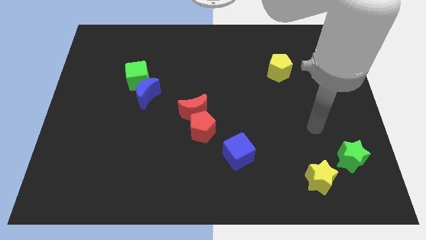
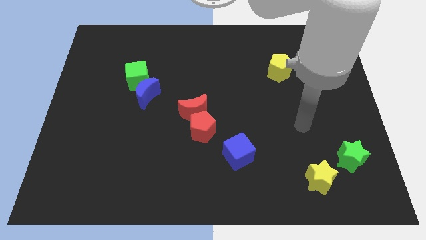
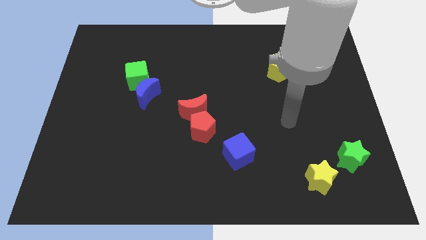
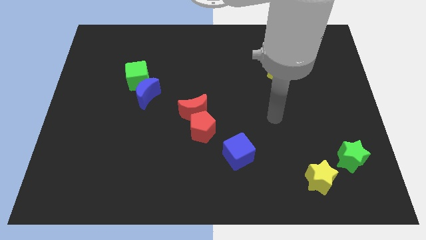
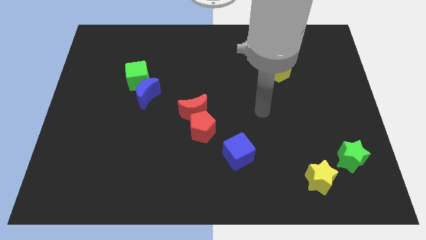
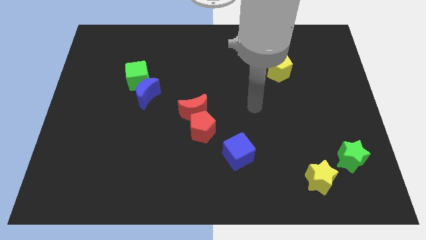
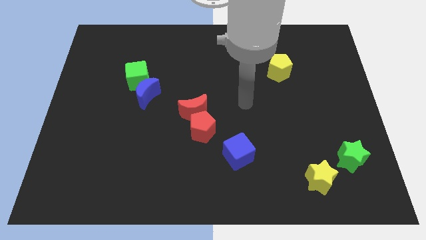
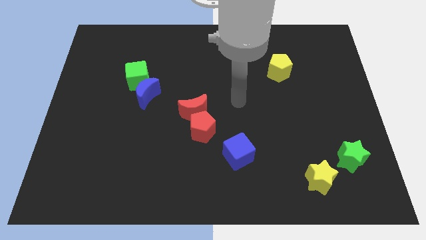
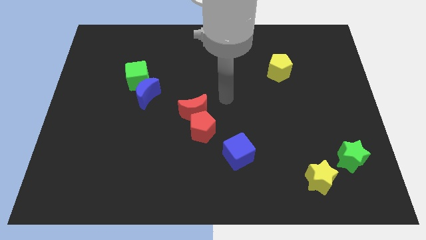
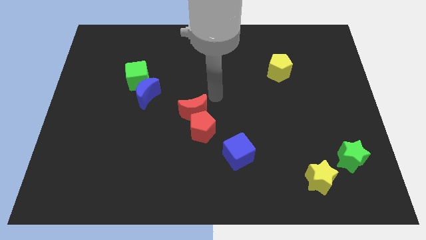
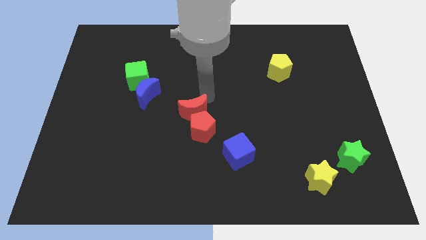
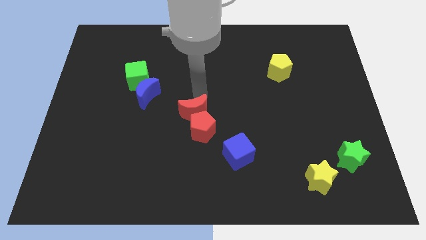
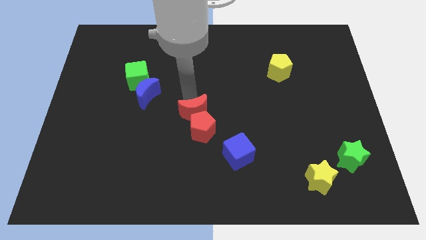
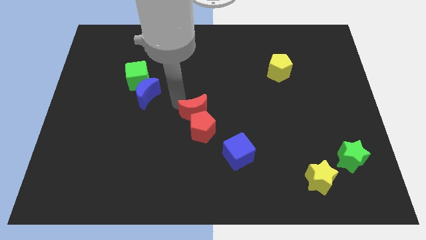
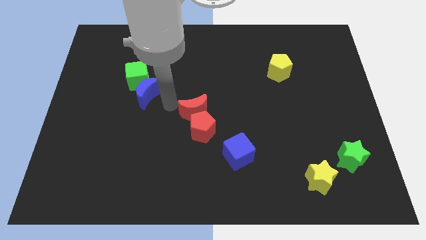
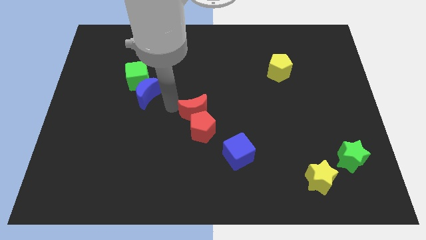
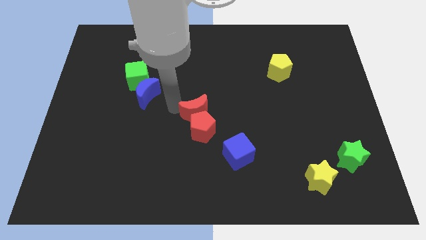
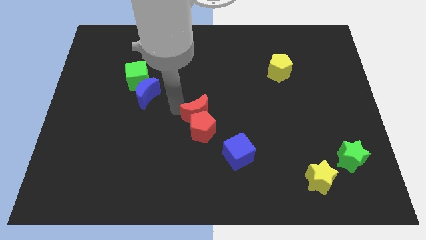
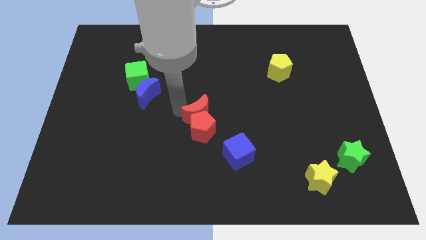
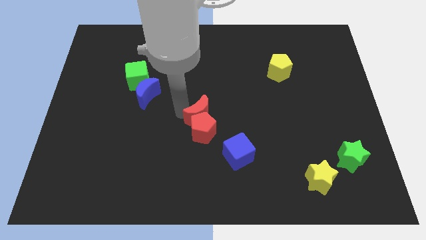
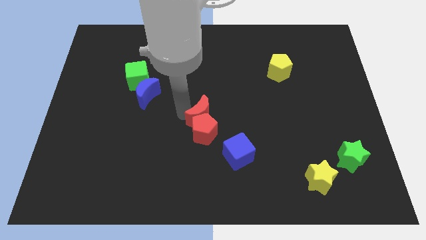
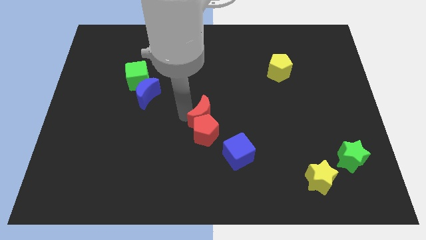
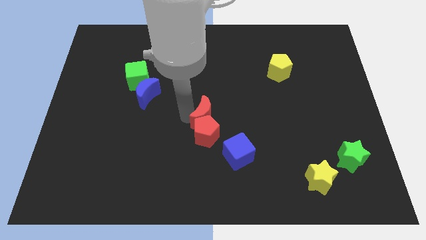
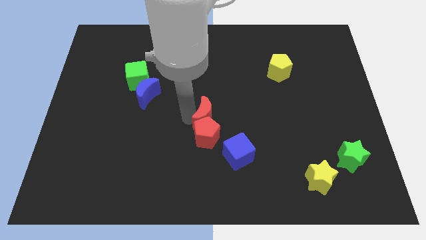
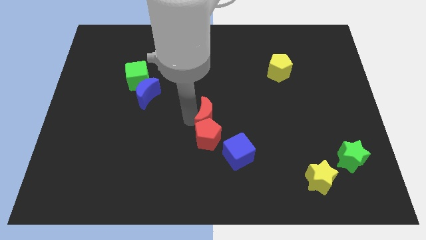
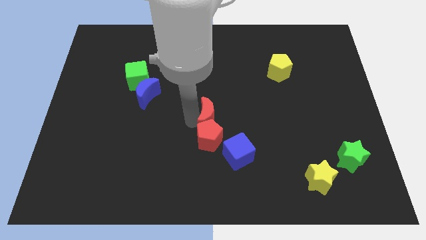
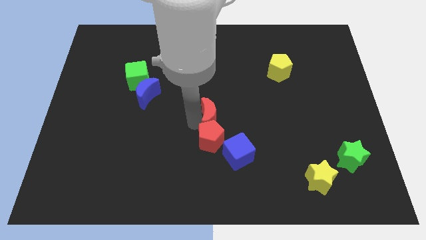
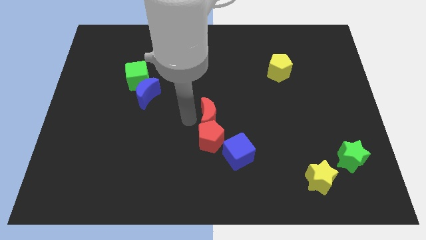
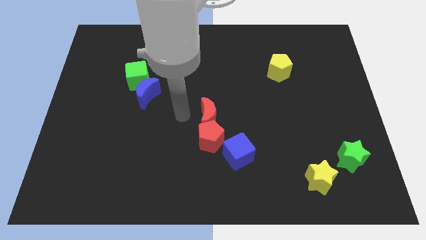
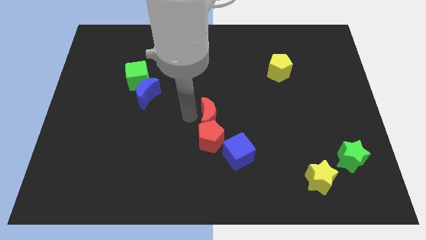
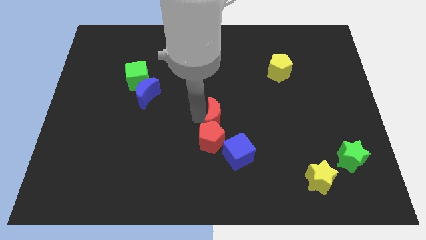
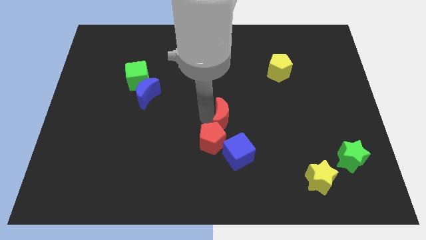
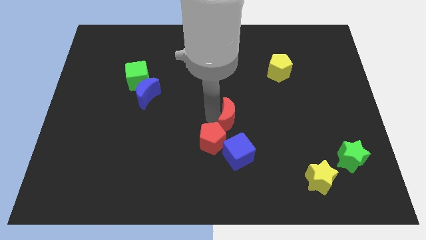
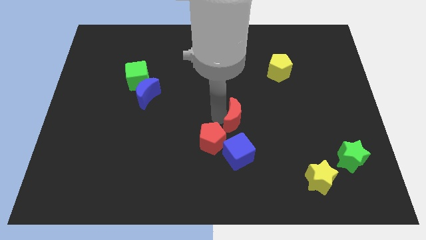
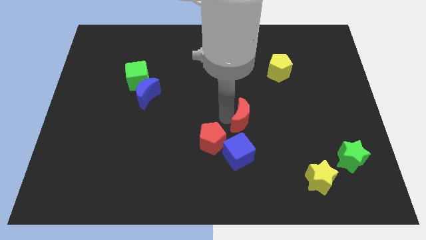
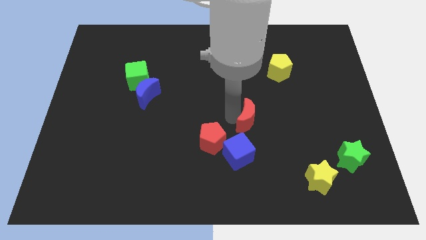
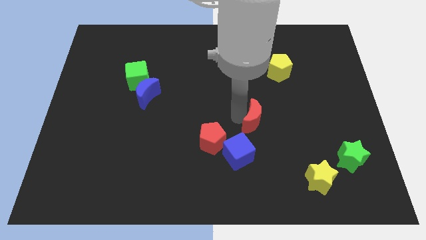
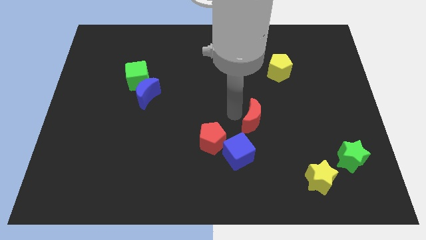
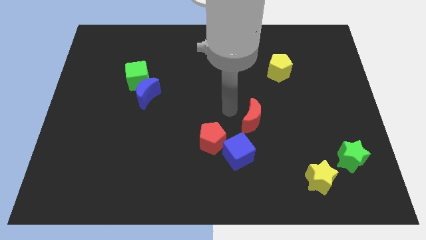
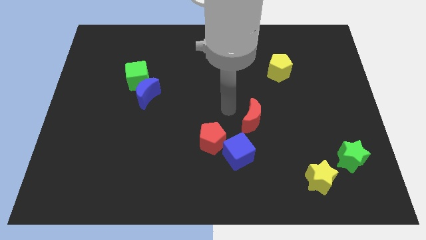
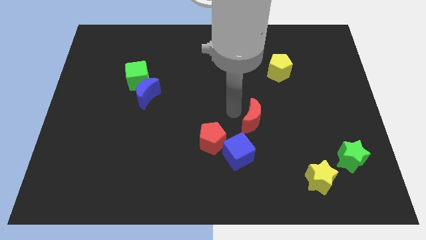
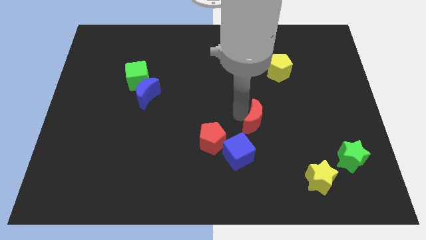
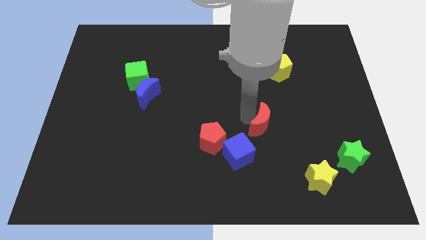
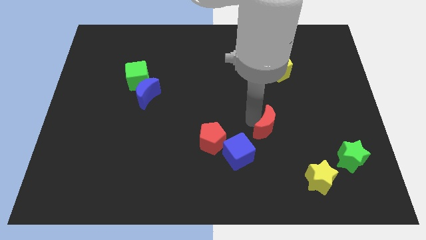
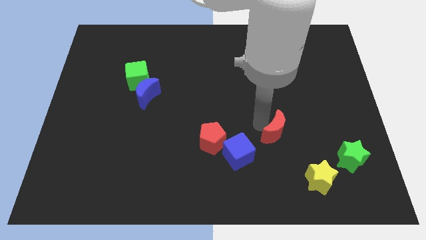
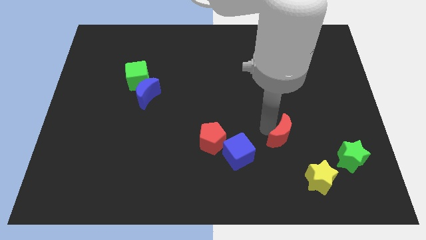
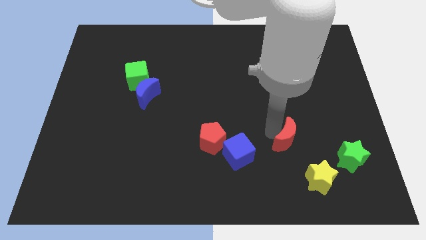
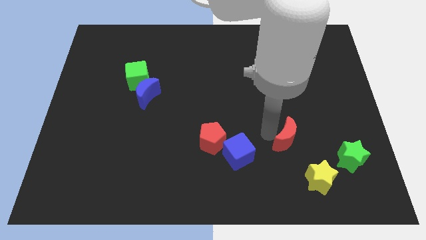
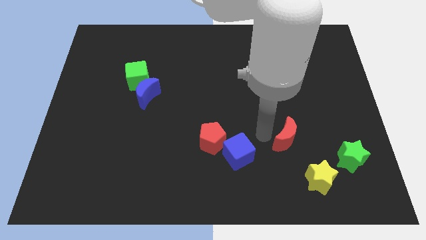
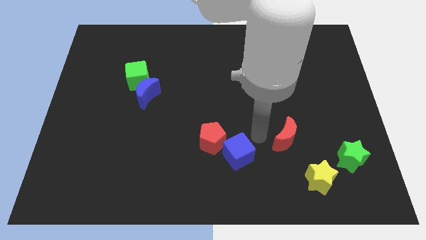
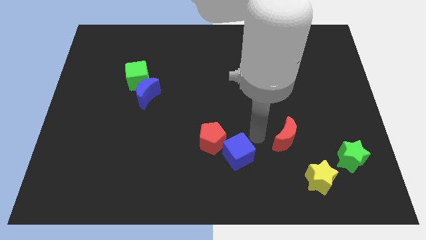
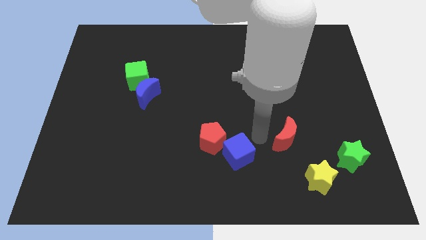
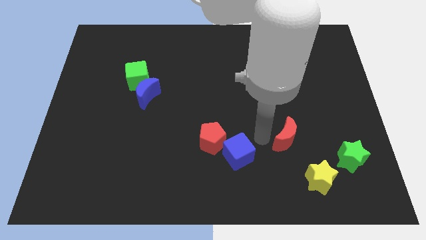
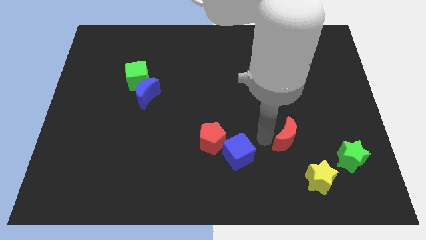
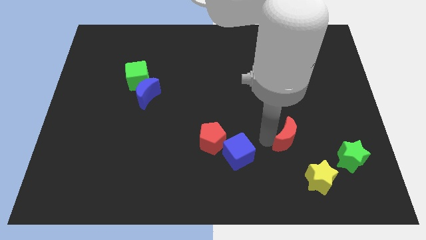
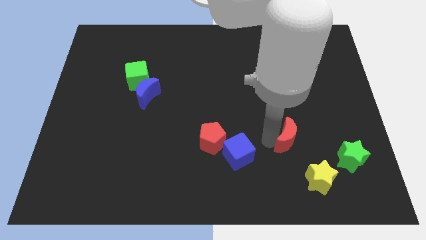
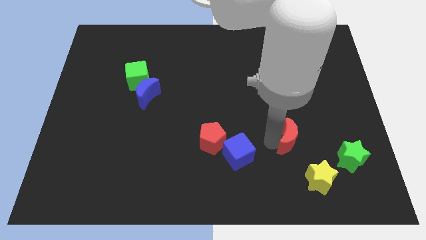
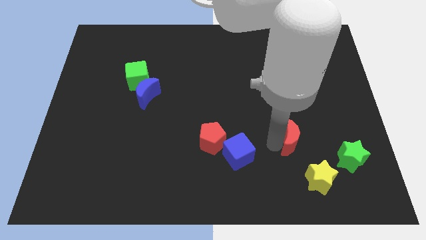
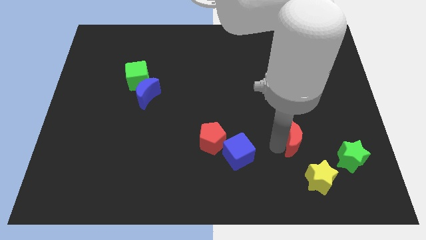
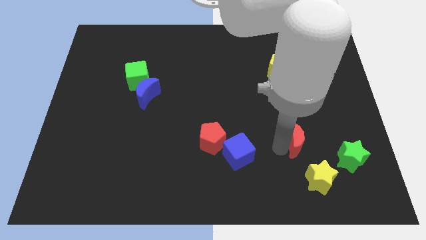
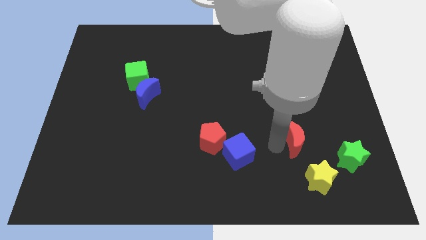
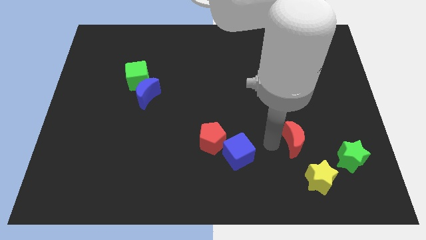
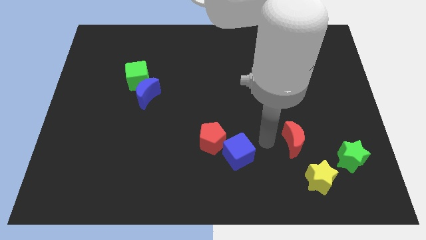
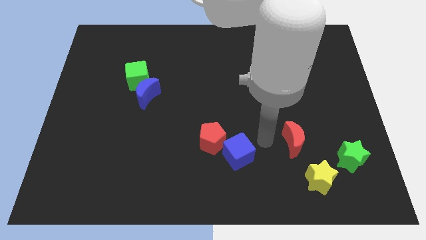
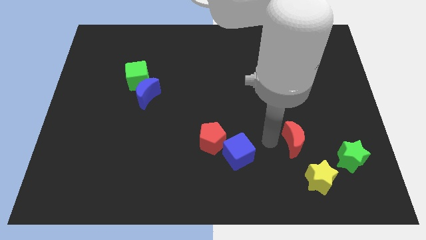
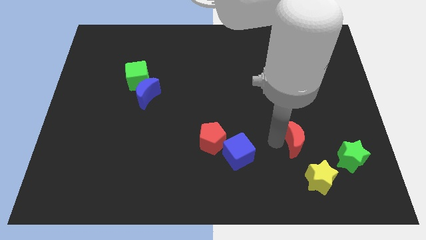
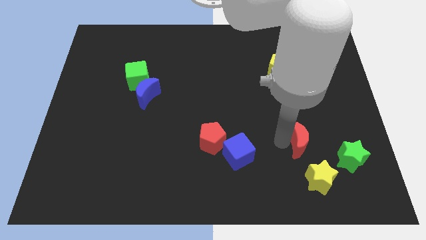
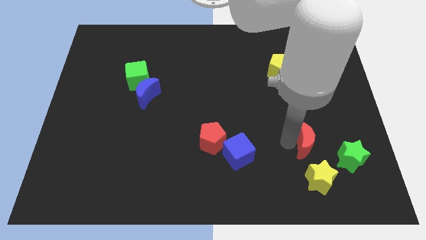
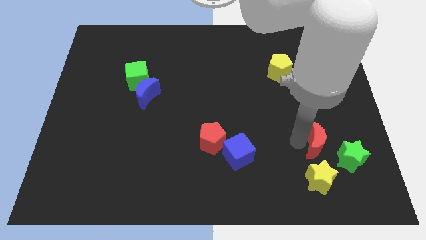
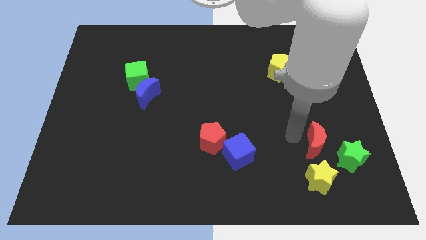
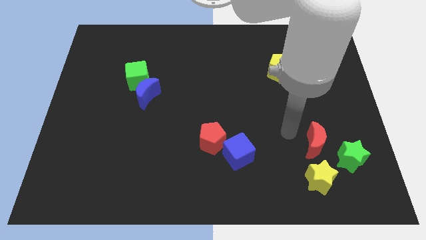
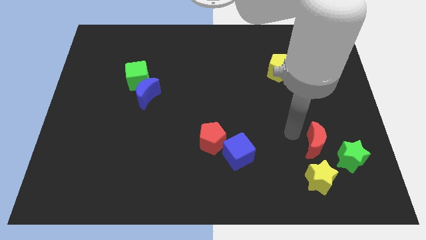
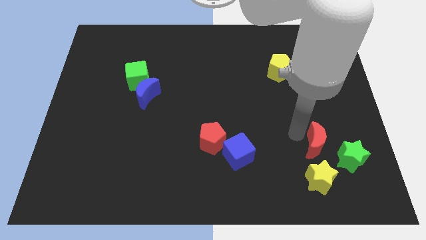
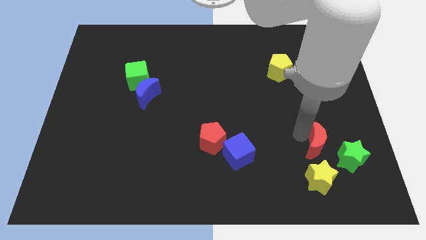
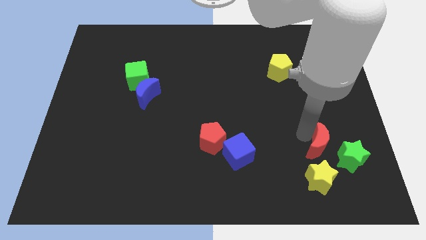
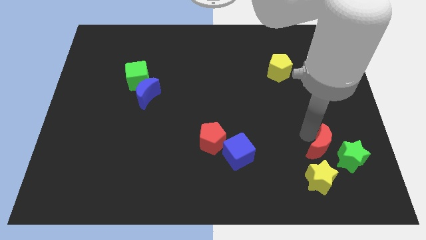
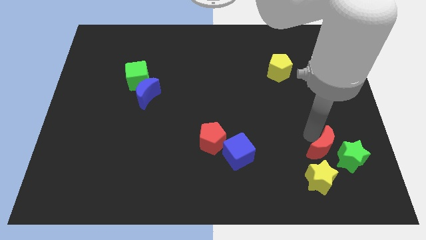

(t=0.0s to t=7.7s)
push the red moon close to the green star
